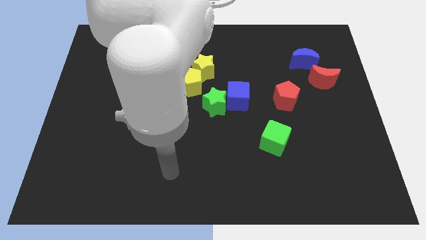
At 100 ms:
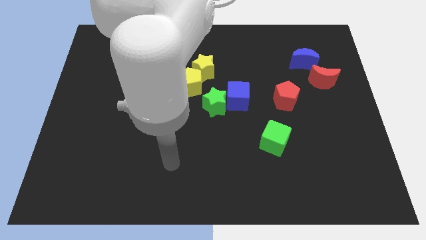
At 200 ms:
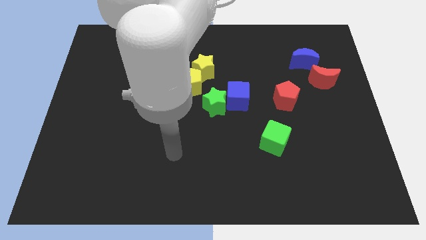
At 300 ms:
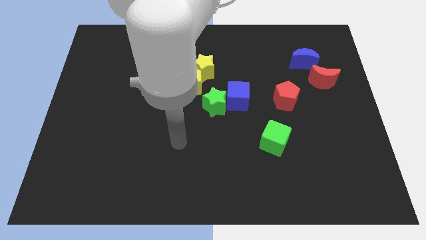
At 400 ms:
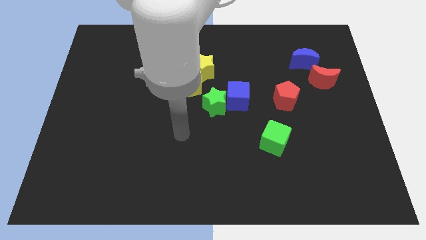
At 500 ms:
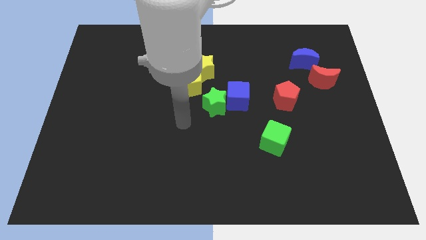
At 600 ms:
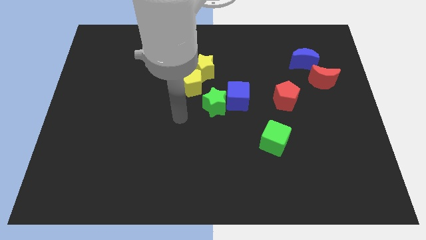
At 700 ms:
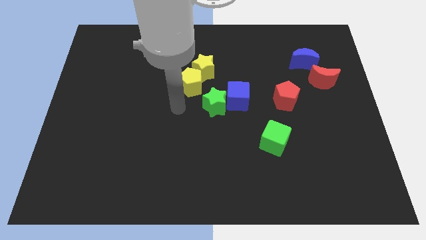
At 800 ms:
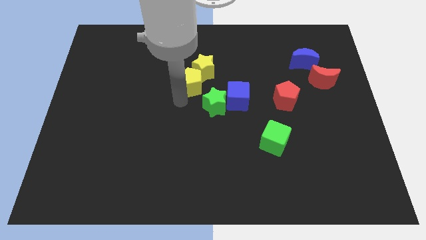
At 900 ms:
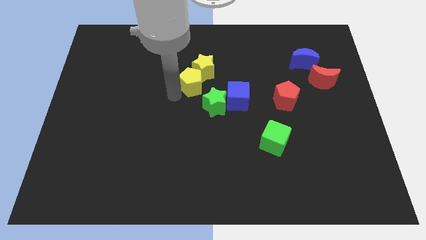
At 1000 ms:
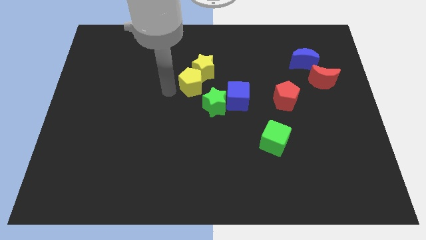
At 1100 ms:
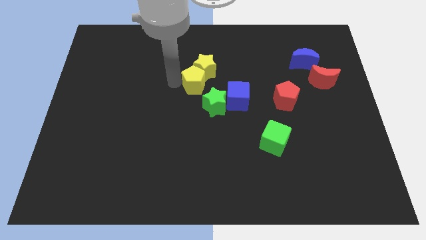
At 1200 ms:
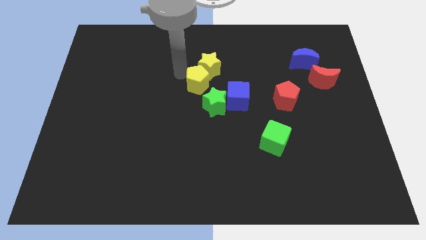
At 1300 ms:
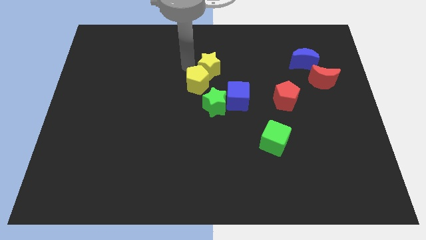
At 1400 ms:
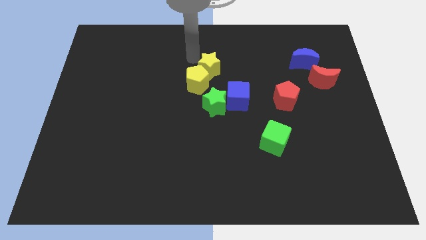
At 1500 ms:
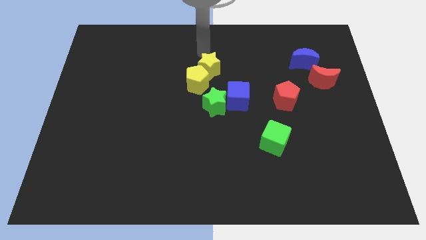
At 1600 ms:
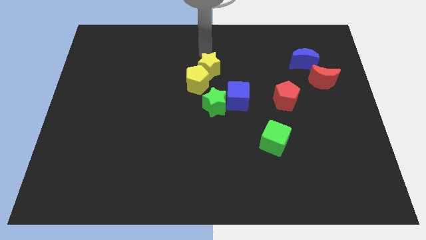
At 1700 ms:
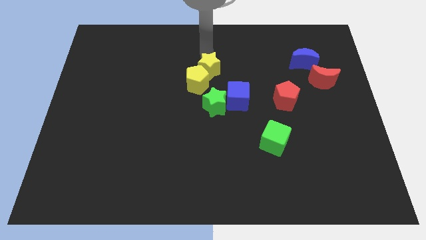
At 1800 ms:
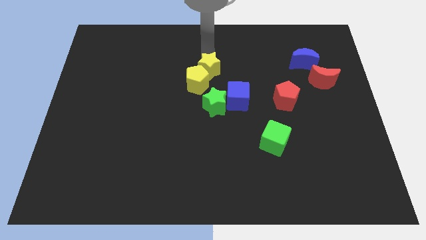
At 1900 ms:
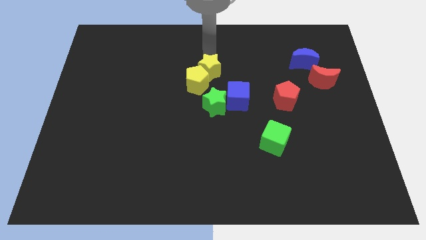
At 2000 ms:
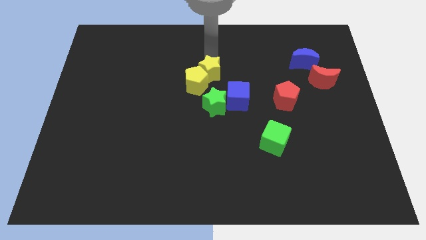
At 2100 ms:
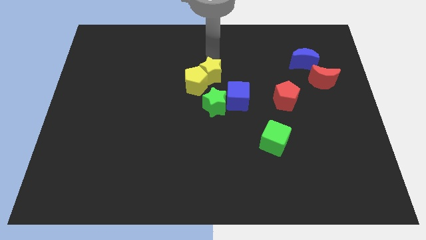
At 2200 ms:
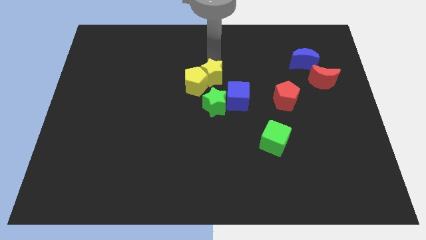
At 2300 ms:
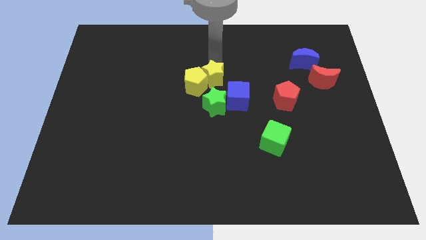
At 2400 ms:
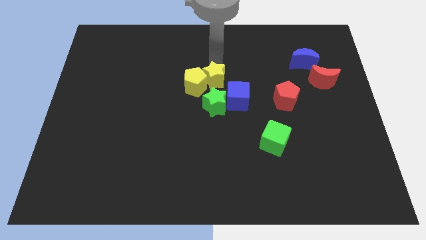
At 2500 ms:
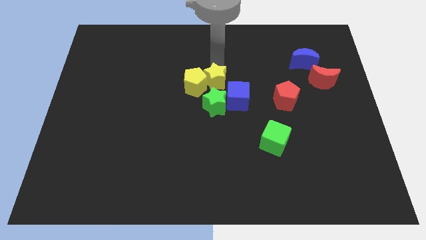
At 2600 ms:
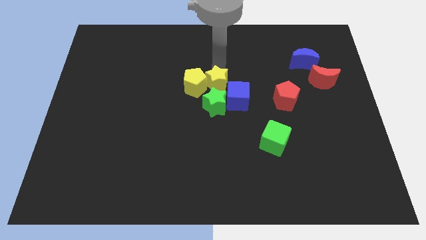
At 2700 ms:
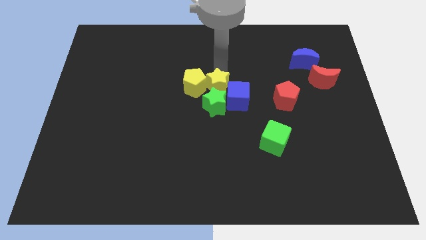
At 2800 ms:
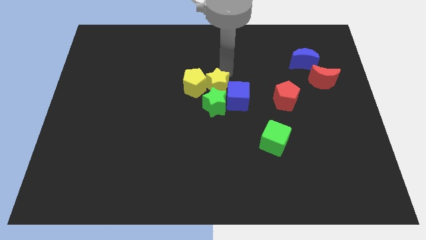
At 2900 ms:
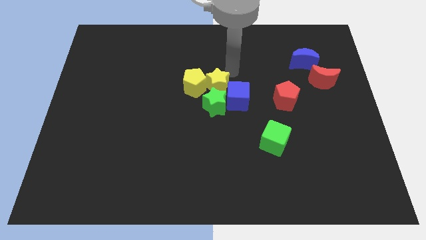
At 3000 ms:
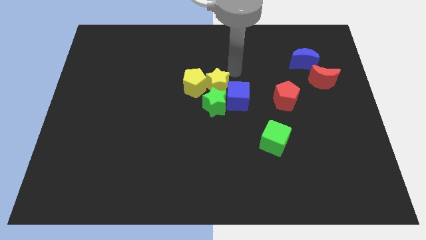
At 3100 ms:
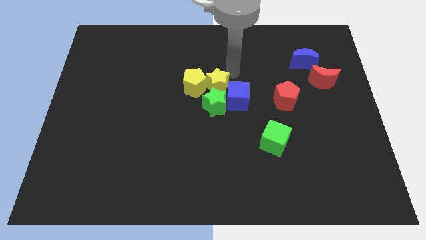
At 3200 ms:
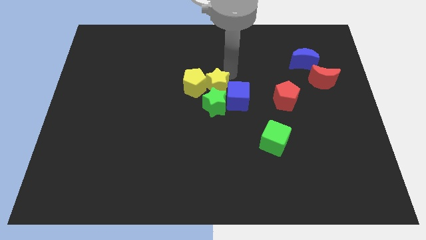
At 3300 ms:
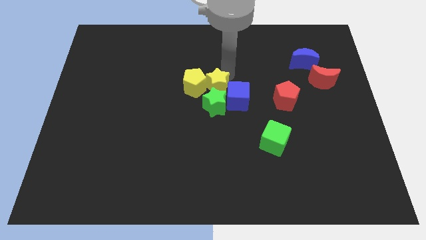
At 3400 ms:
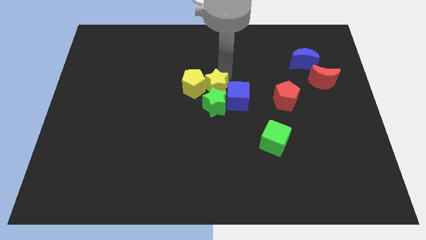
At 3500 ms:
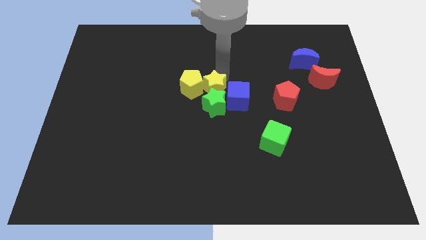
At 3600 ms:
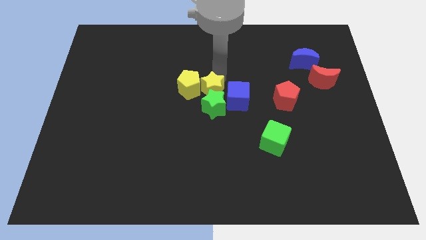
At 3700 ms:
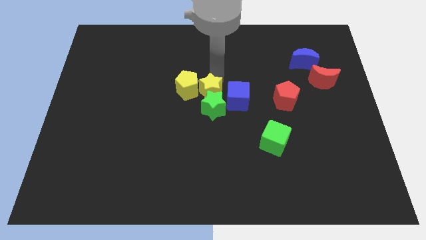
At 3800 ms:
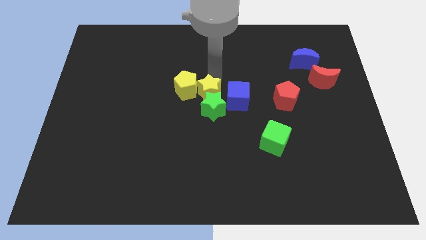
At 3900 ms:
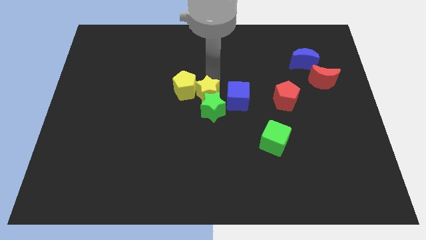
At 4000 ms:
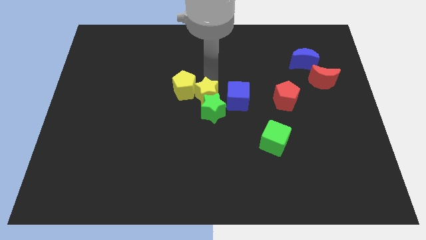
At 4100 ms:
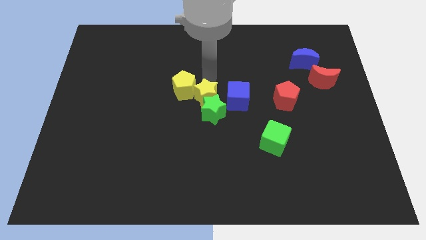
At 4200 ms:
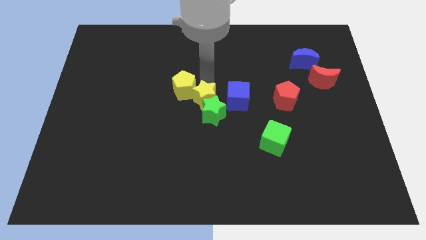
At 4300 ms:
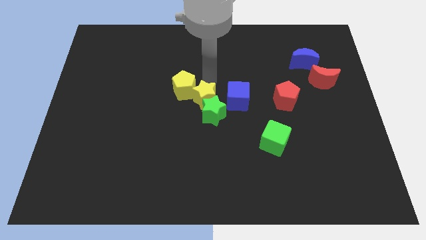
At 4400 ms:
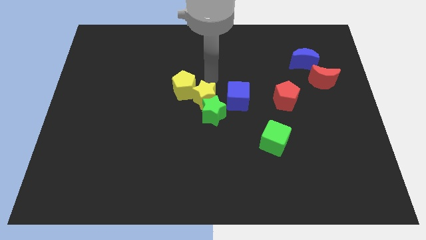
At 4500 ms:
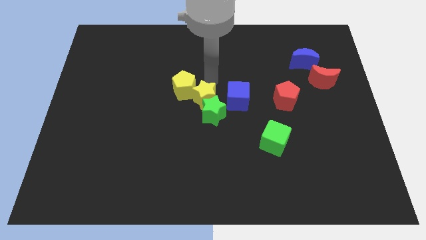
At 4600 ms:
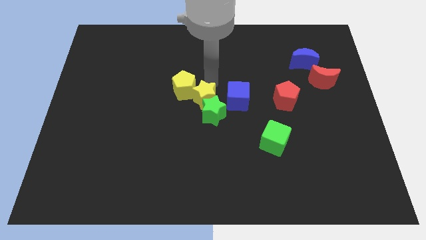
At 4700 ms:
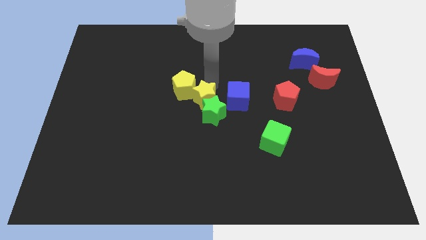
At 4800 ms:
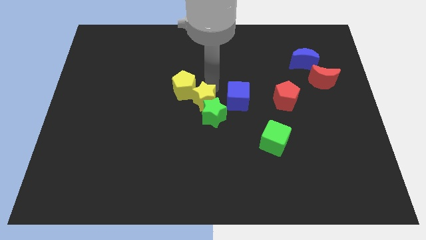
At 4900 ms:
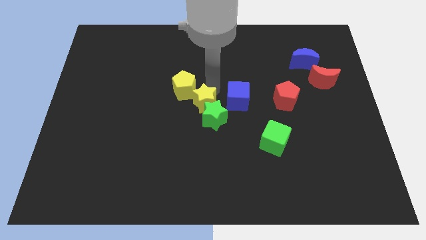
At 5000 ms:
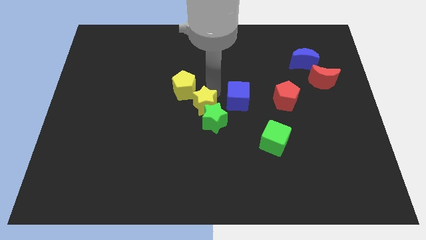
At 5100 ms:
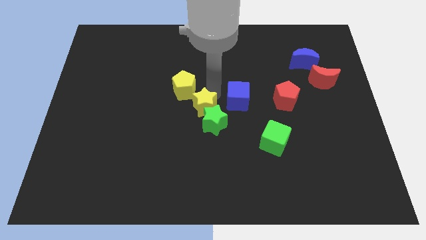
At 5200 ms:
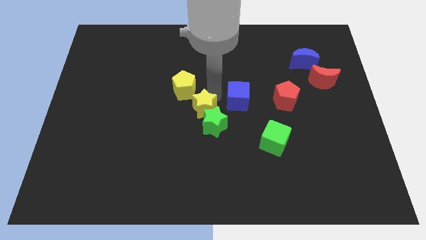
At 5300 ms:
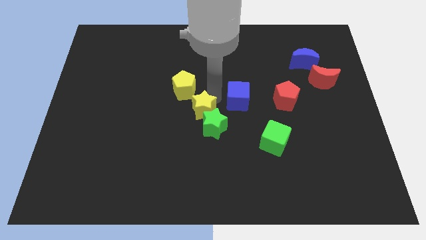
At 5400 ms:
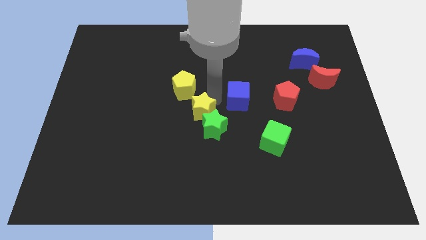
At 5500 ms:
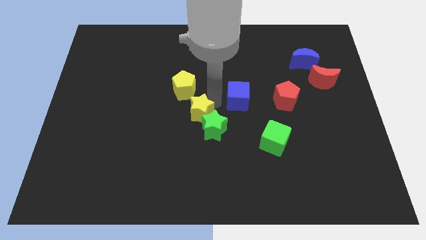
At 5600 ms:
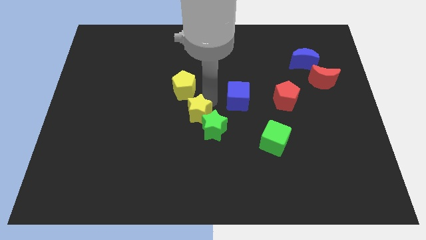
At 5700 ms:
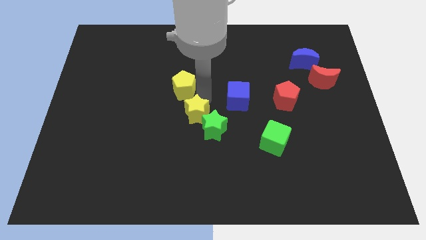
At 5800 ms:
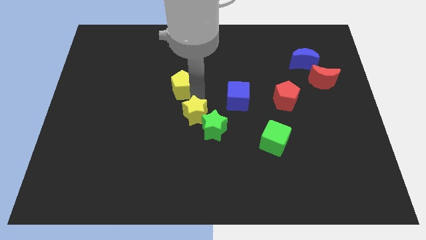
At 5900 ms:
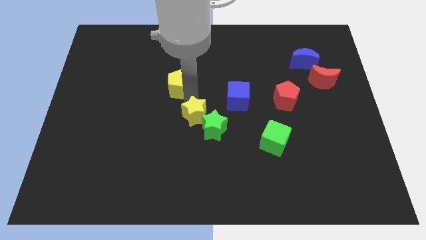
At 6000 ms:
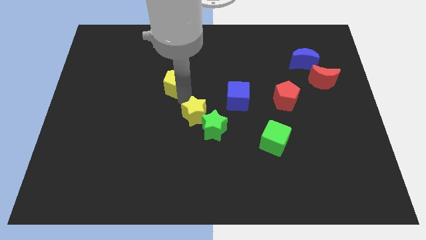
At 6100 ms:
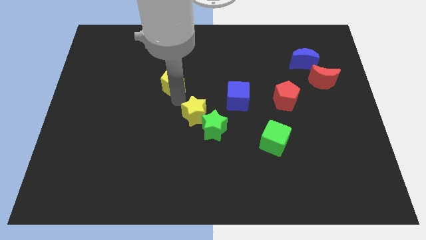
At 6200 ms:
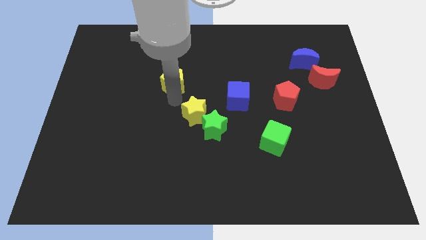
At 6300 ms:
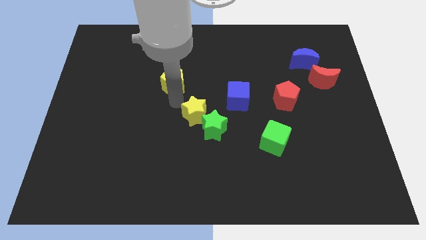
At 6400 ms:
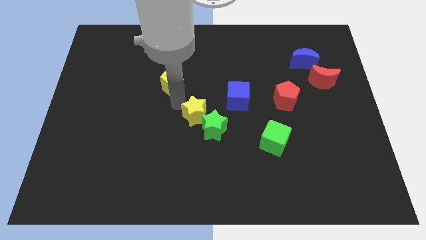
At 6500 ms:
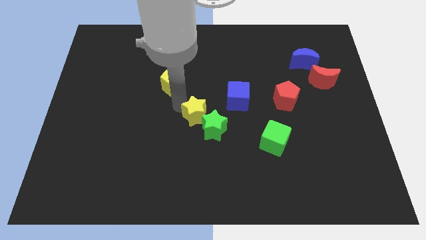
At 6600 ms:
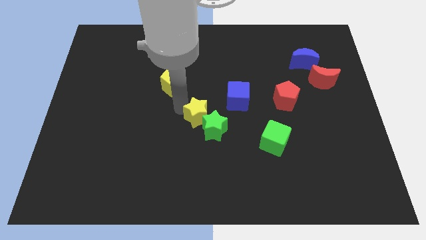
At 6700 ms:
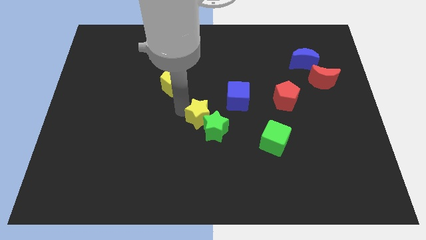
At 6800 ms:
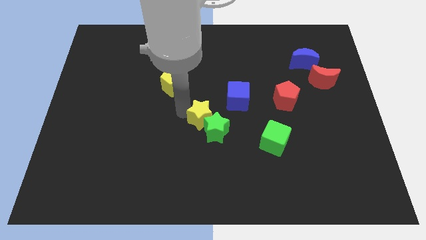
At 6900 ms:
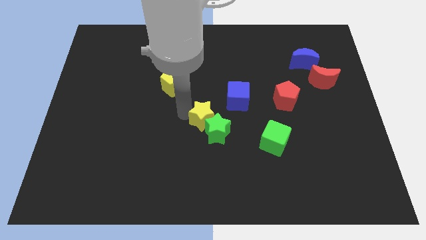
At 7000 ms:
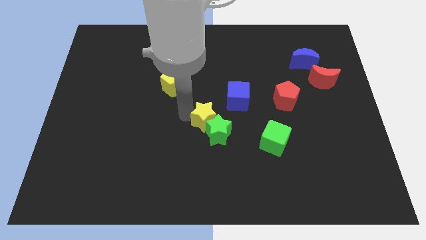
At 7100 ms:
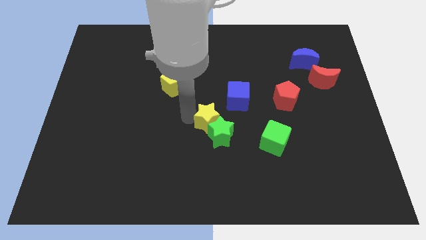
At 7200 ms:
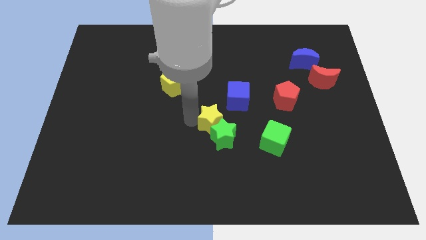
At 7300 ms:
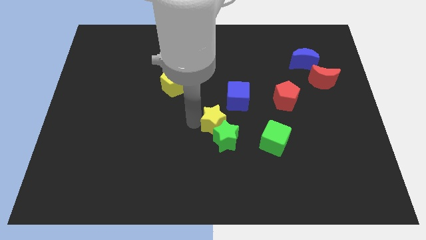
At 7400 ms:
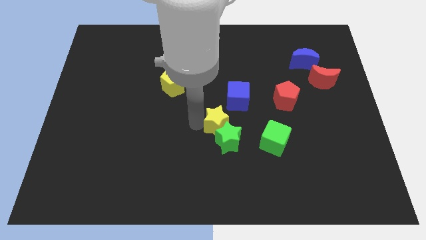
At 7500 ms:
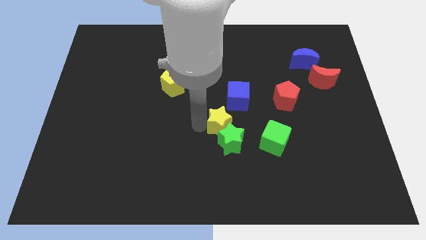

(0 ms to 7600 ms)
slide the yellow star below the blue cube
